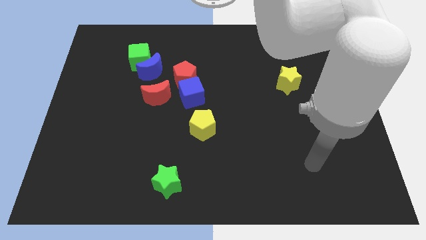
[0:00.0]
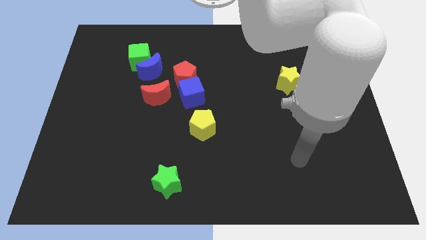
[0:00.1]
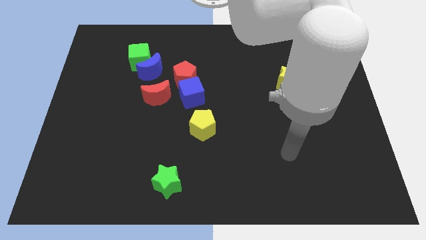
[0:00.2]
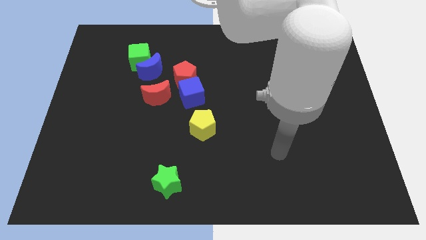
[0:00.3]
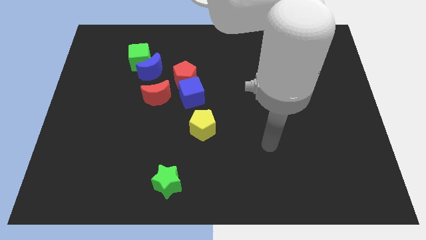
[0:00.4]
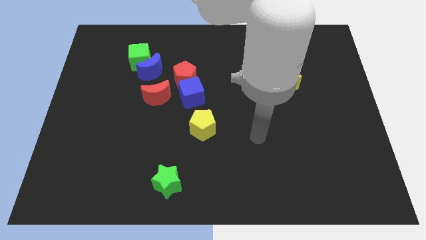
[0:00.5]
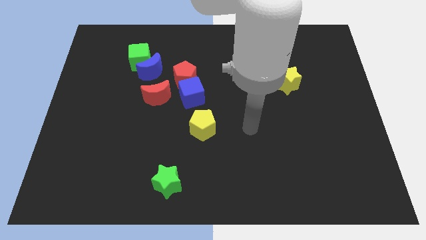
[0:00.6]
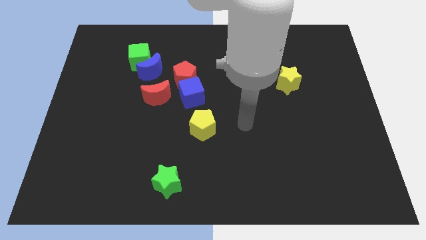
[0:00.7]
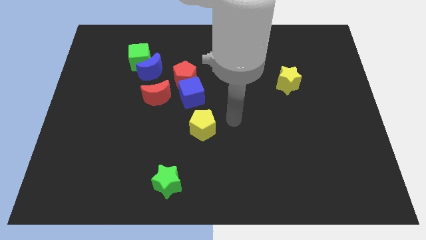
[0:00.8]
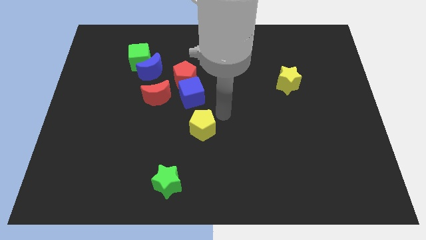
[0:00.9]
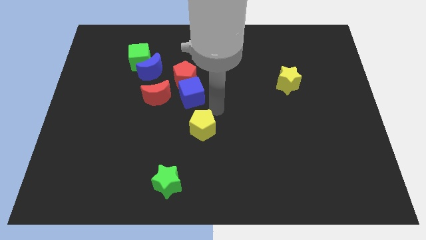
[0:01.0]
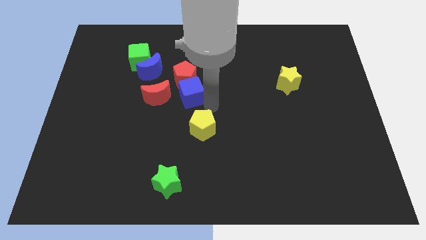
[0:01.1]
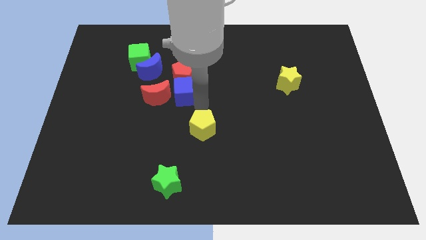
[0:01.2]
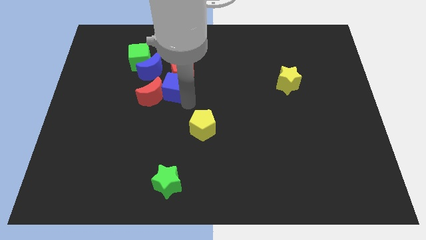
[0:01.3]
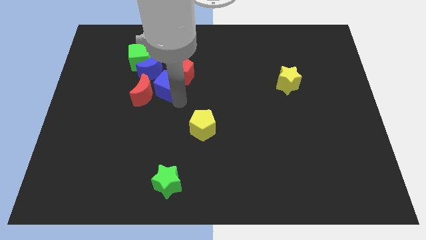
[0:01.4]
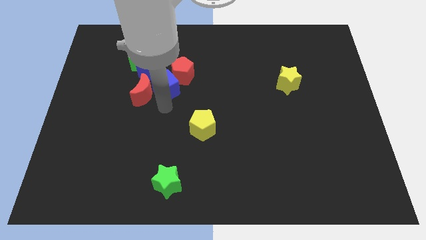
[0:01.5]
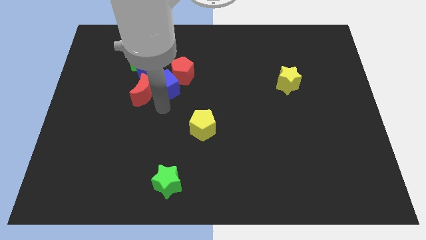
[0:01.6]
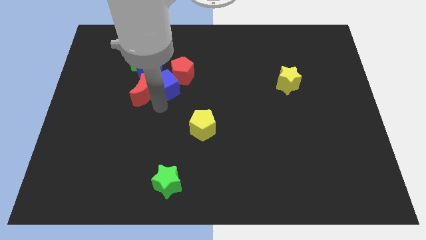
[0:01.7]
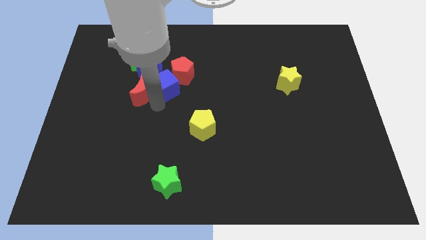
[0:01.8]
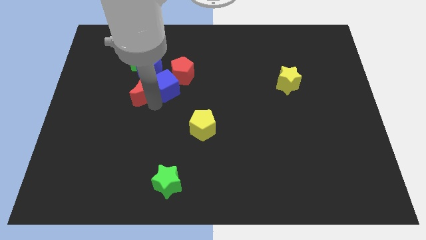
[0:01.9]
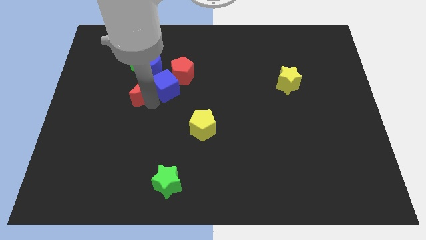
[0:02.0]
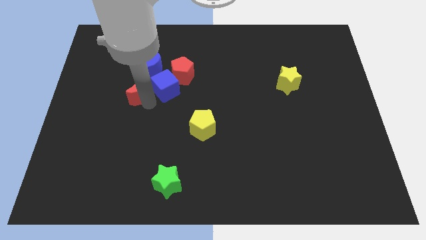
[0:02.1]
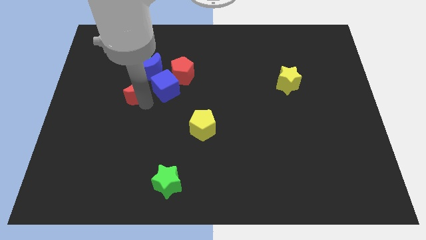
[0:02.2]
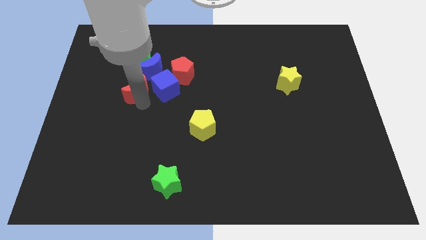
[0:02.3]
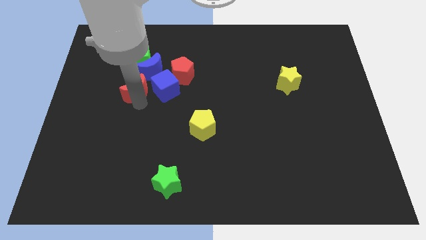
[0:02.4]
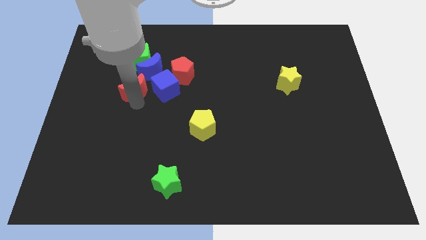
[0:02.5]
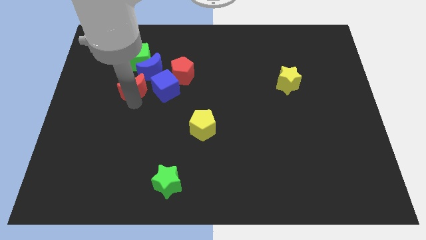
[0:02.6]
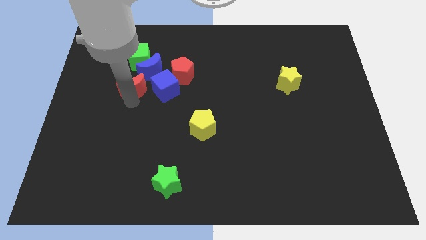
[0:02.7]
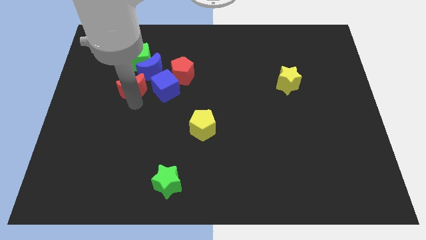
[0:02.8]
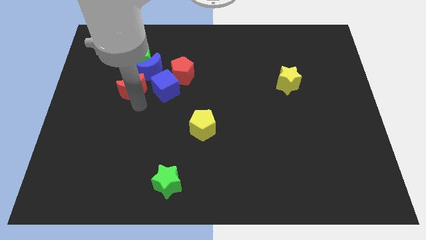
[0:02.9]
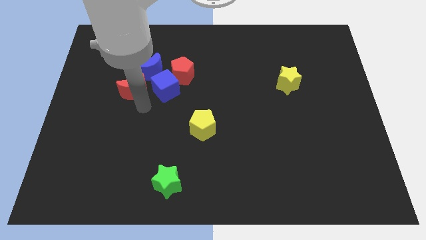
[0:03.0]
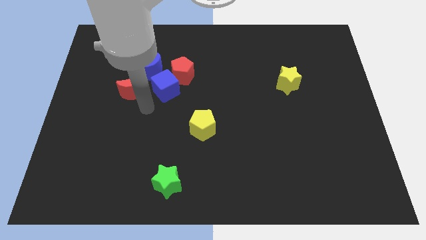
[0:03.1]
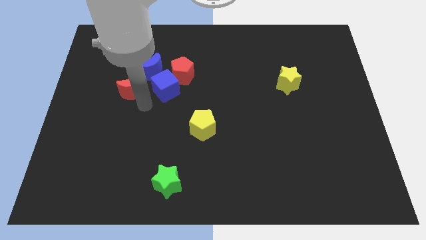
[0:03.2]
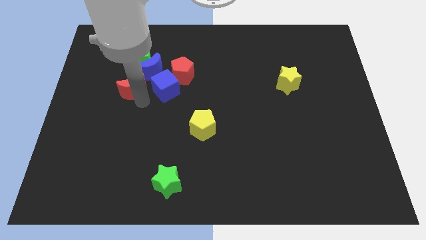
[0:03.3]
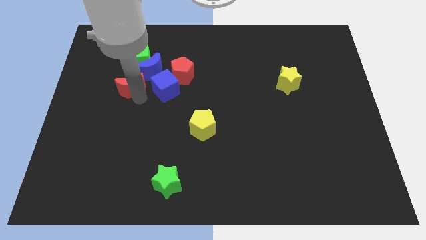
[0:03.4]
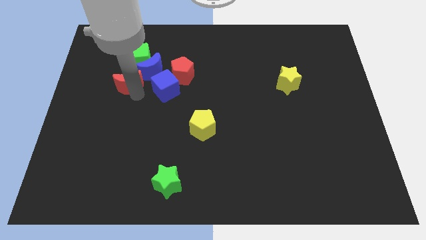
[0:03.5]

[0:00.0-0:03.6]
slightly slide the red moon upwards and then to the left

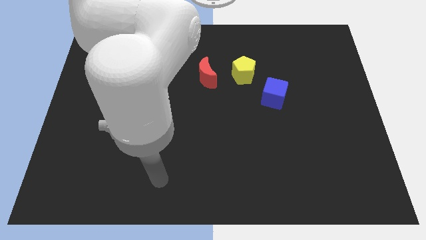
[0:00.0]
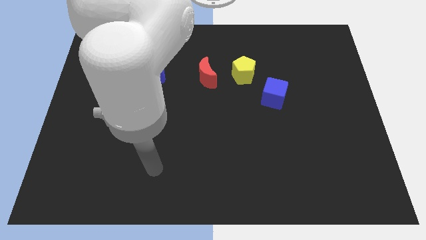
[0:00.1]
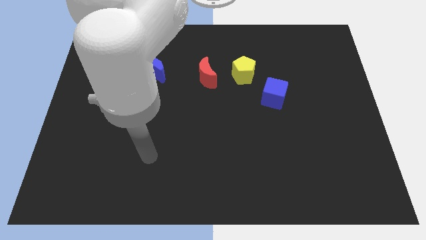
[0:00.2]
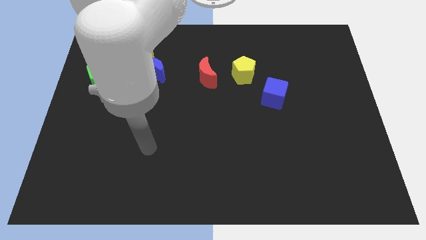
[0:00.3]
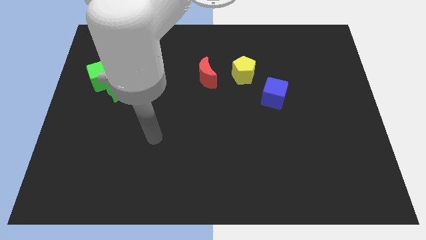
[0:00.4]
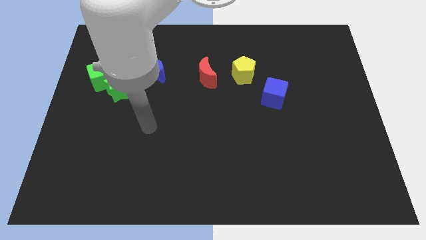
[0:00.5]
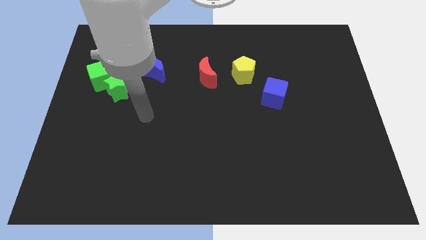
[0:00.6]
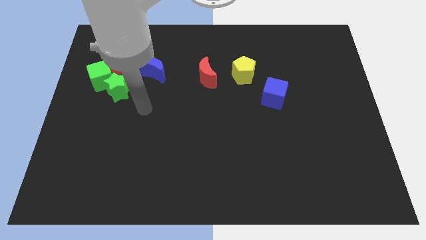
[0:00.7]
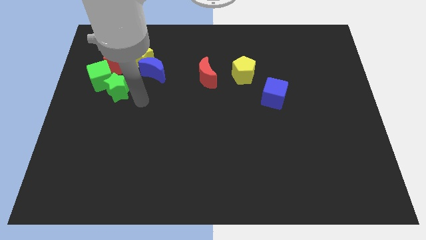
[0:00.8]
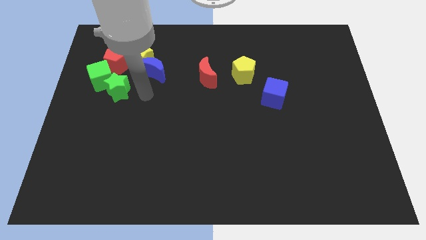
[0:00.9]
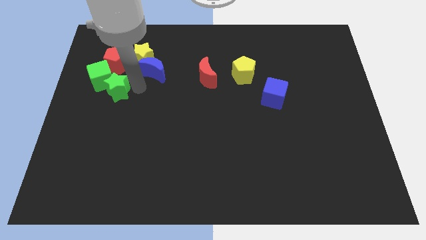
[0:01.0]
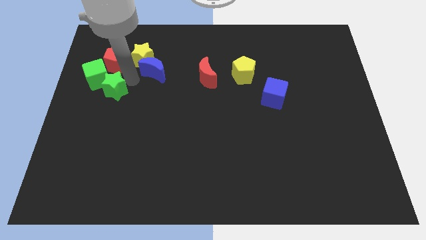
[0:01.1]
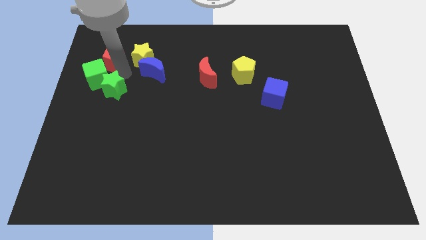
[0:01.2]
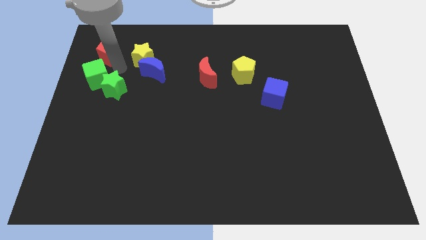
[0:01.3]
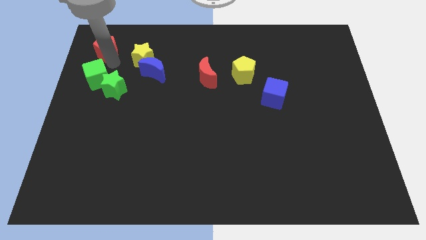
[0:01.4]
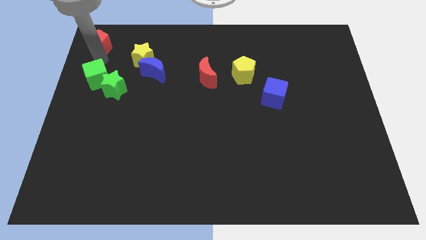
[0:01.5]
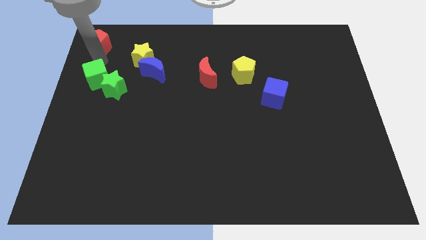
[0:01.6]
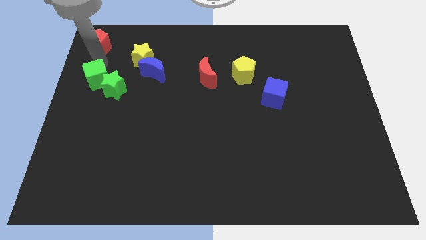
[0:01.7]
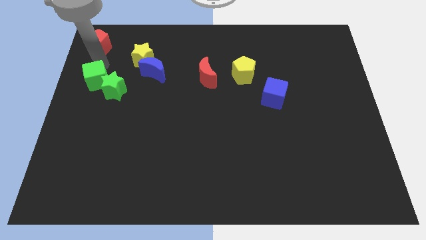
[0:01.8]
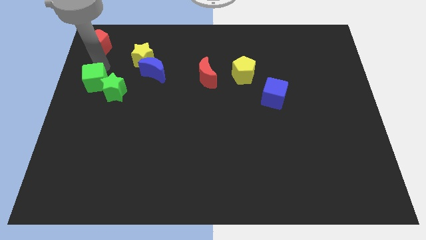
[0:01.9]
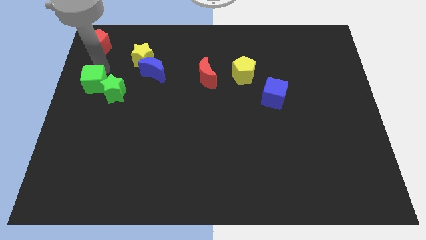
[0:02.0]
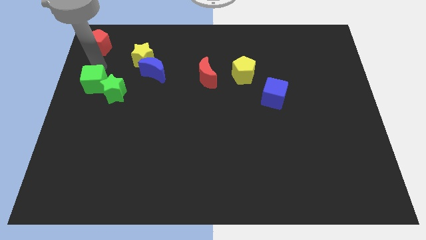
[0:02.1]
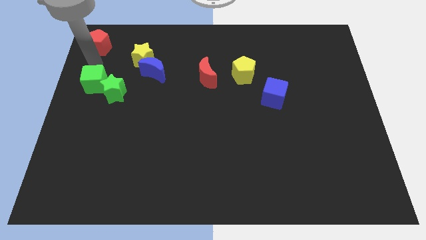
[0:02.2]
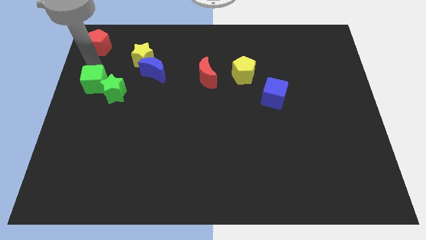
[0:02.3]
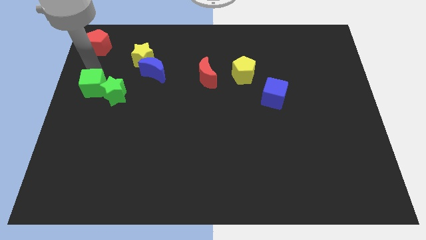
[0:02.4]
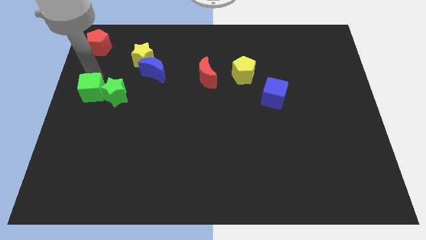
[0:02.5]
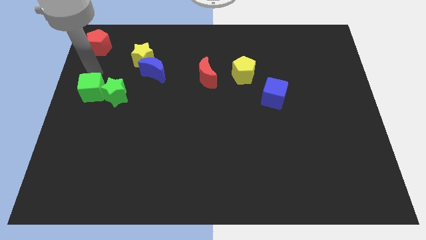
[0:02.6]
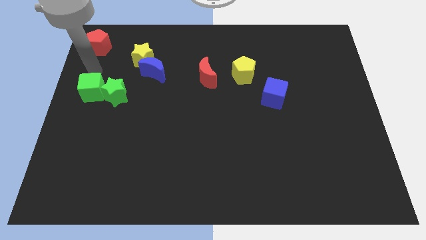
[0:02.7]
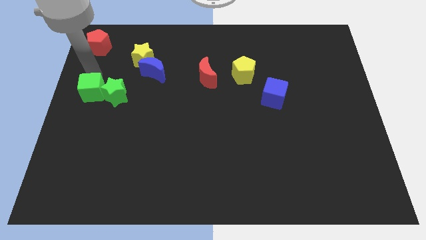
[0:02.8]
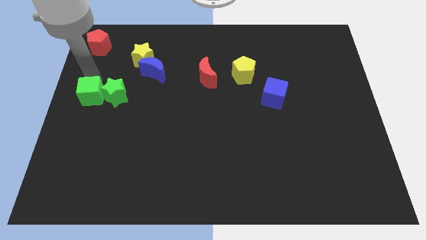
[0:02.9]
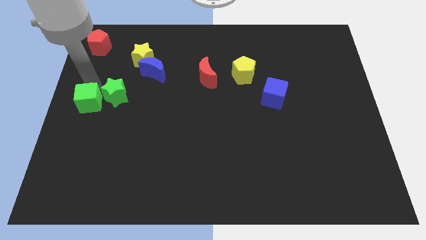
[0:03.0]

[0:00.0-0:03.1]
slightly move the green cube downwards

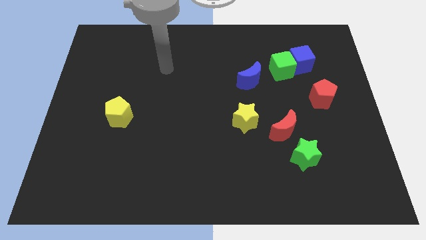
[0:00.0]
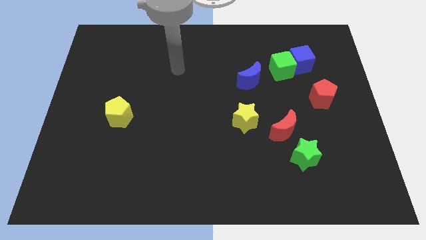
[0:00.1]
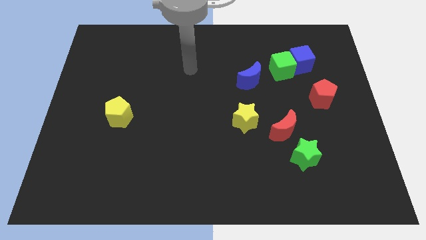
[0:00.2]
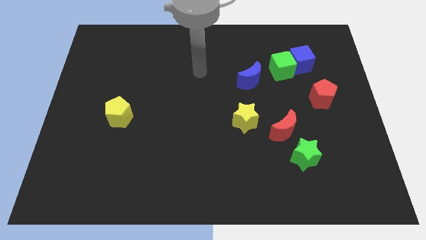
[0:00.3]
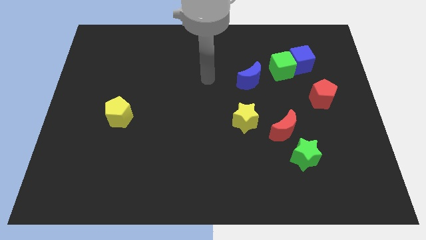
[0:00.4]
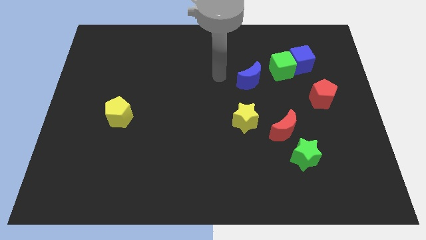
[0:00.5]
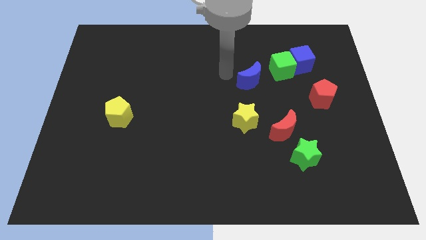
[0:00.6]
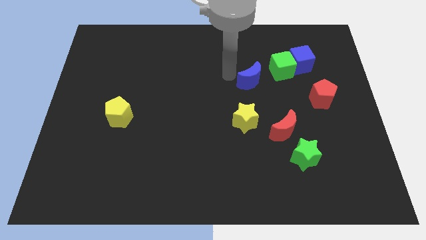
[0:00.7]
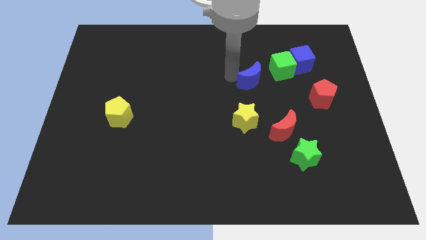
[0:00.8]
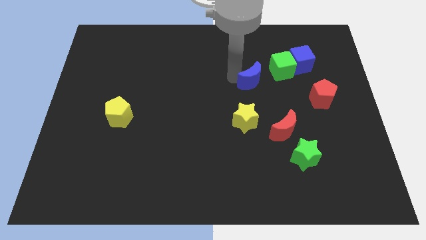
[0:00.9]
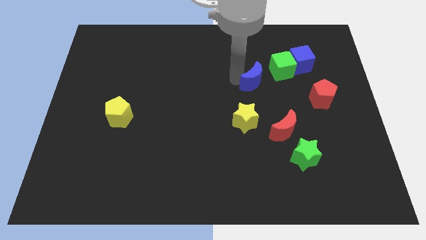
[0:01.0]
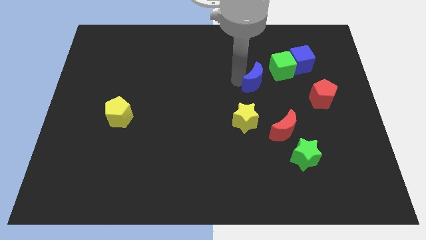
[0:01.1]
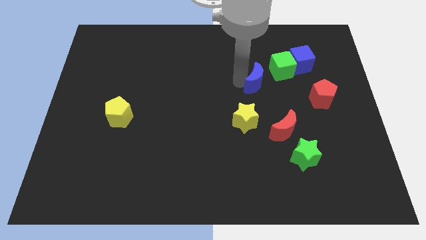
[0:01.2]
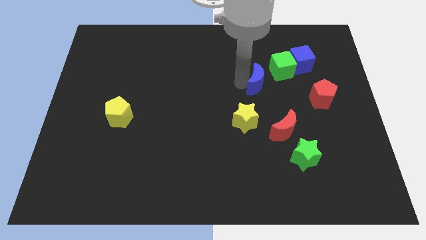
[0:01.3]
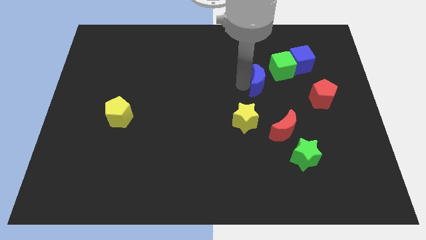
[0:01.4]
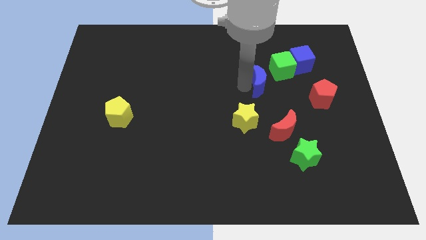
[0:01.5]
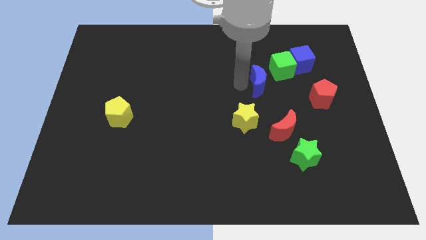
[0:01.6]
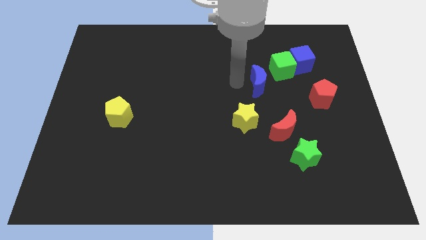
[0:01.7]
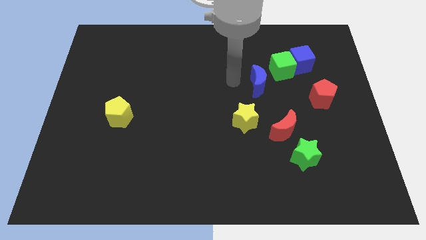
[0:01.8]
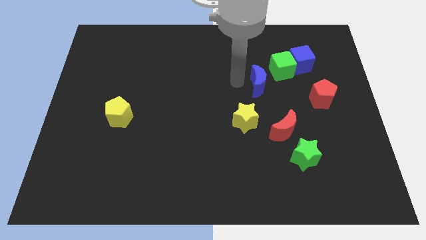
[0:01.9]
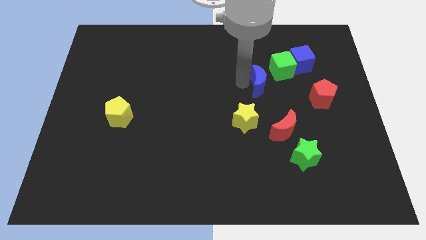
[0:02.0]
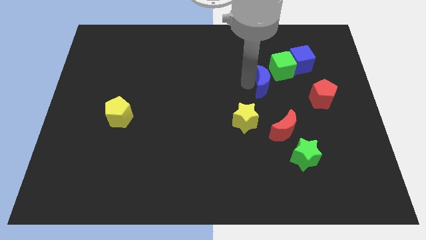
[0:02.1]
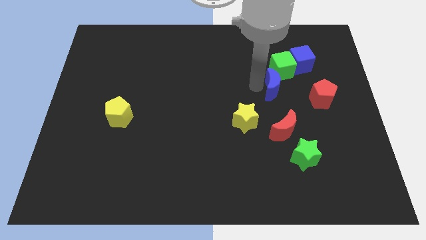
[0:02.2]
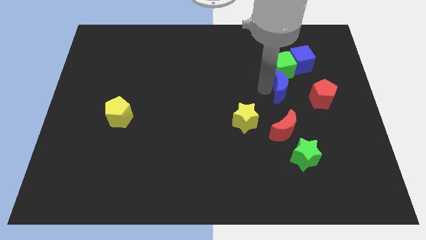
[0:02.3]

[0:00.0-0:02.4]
slide the blue moon to the right a bit
